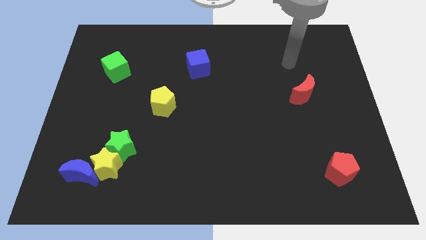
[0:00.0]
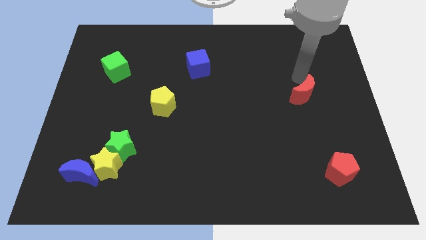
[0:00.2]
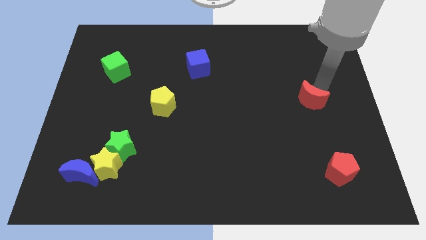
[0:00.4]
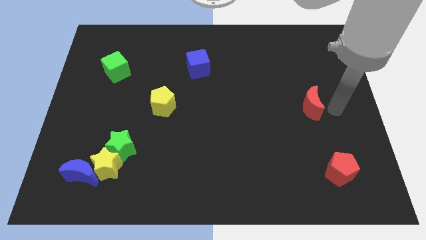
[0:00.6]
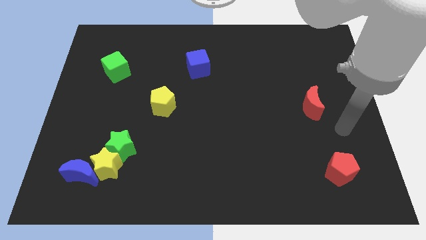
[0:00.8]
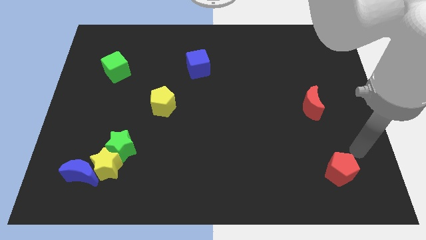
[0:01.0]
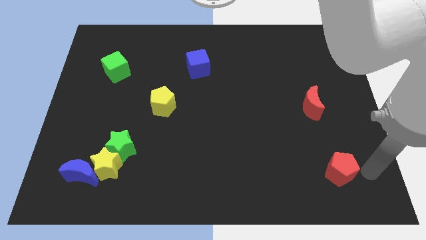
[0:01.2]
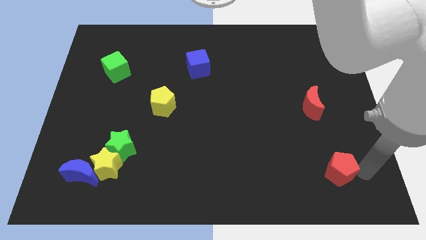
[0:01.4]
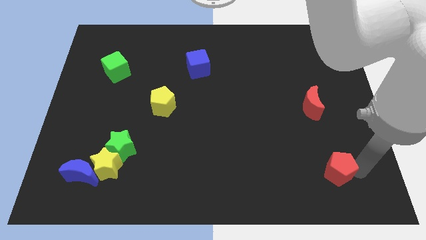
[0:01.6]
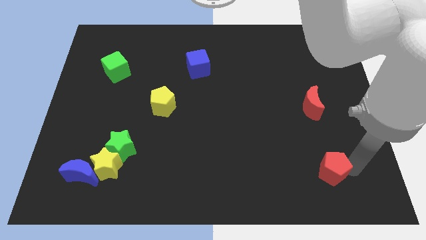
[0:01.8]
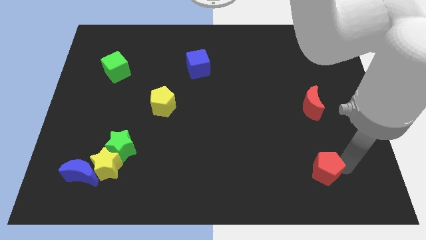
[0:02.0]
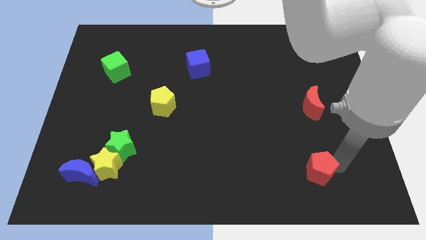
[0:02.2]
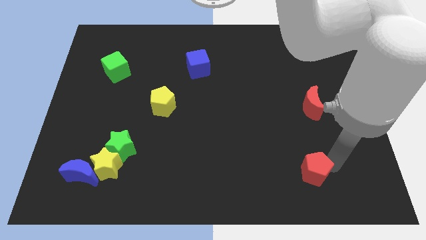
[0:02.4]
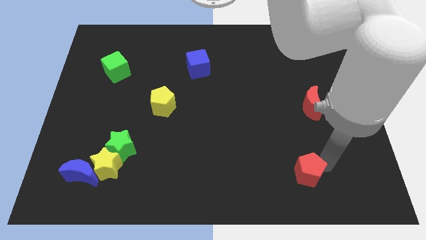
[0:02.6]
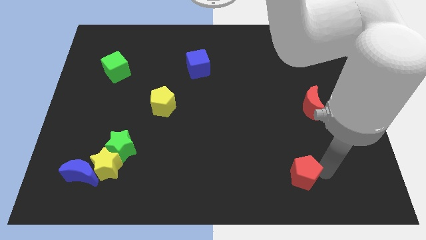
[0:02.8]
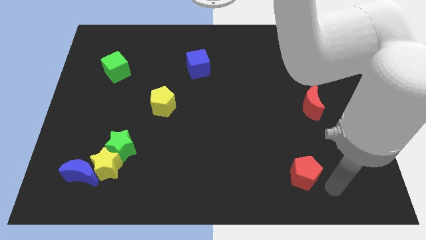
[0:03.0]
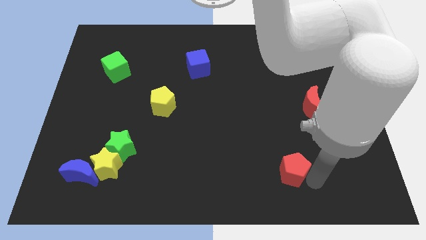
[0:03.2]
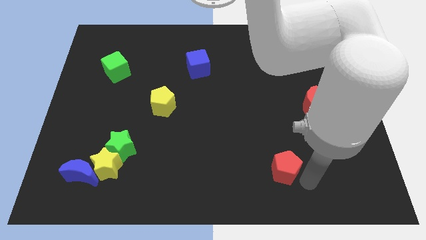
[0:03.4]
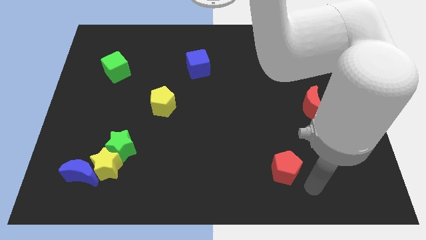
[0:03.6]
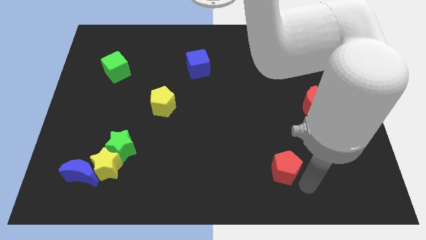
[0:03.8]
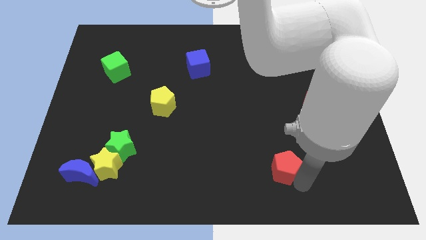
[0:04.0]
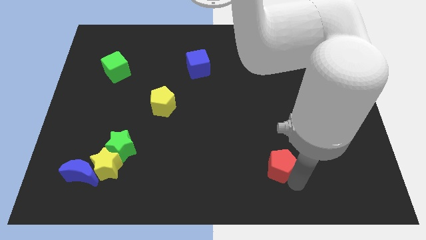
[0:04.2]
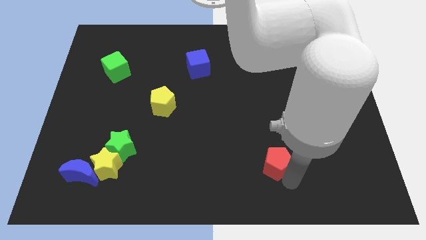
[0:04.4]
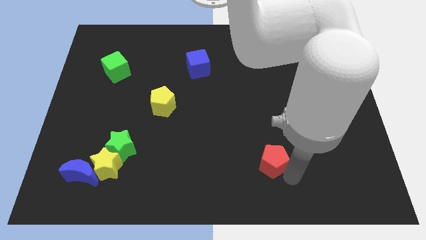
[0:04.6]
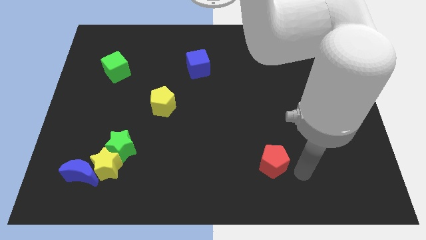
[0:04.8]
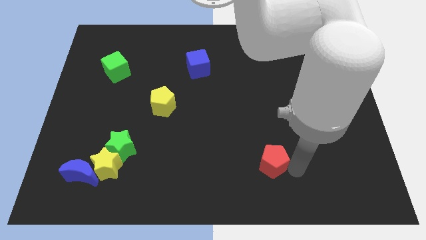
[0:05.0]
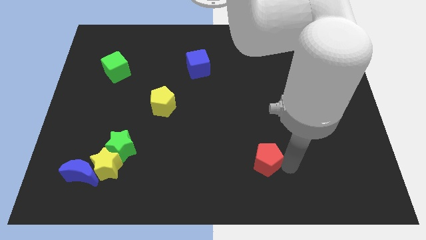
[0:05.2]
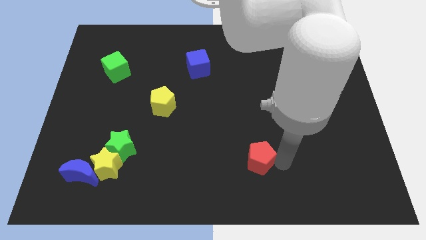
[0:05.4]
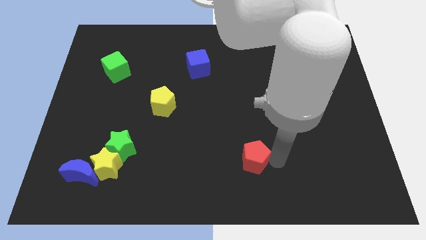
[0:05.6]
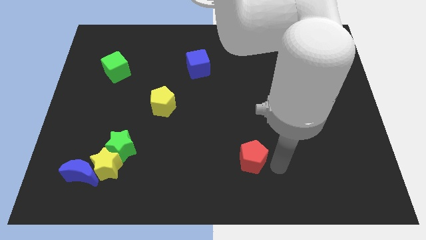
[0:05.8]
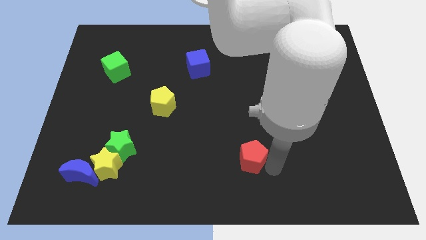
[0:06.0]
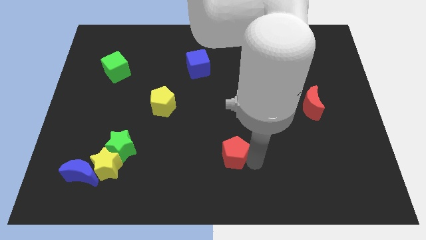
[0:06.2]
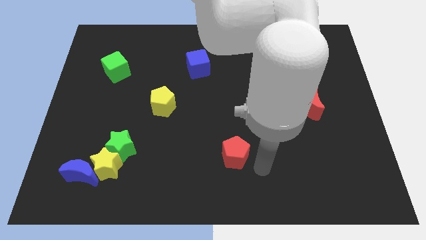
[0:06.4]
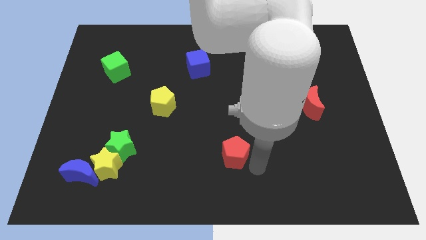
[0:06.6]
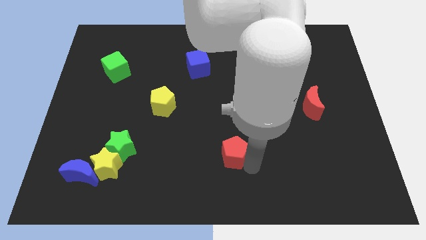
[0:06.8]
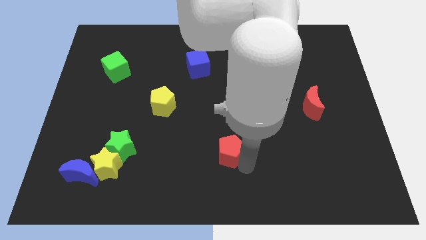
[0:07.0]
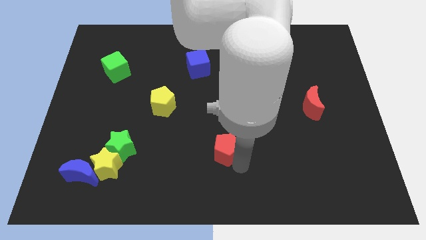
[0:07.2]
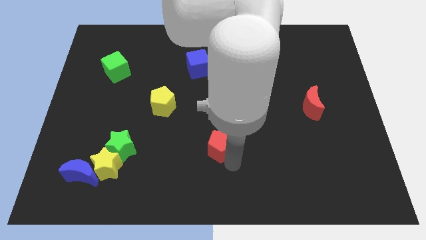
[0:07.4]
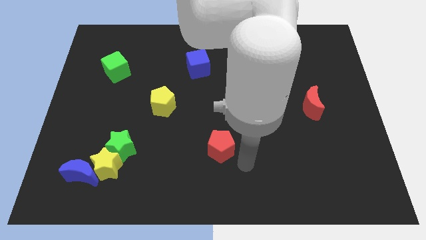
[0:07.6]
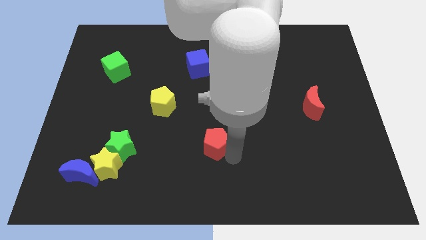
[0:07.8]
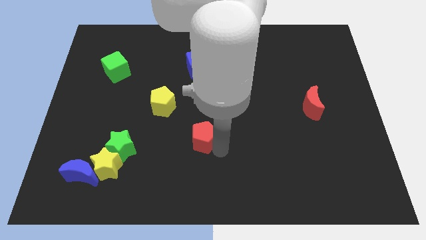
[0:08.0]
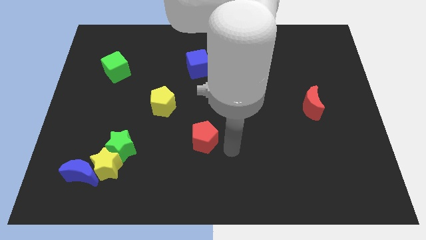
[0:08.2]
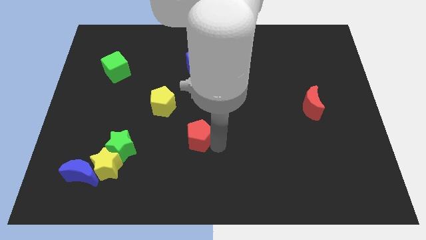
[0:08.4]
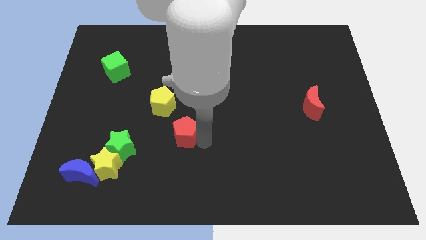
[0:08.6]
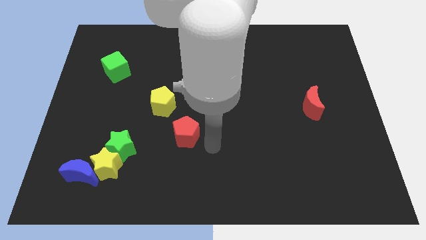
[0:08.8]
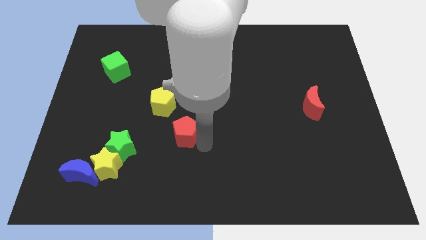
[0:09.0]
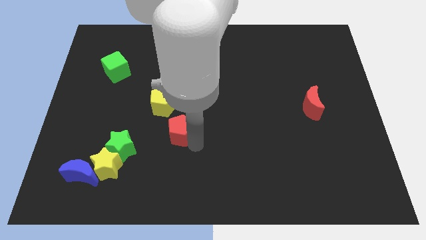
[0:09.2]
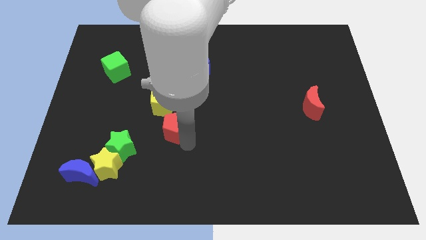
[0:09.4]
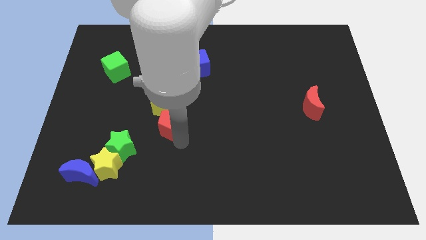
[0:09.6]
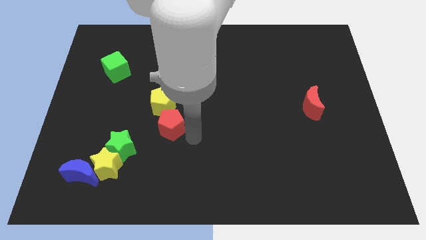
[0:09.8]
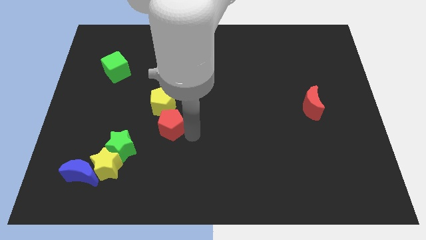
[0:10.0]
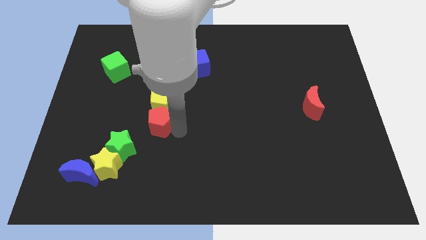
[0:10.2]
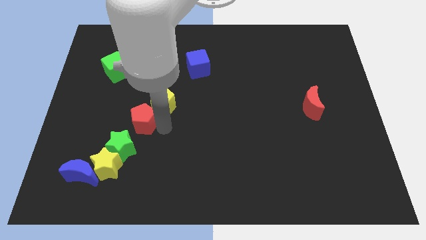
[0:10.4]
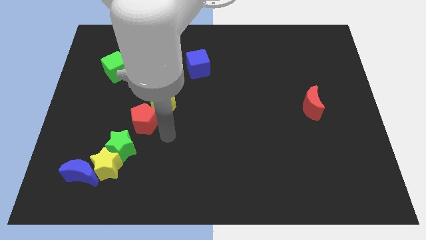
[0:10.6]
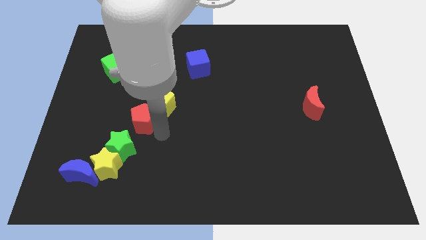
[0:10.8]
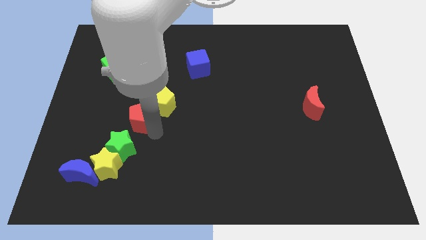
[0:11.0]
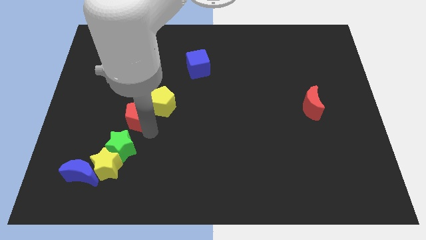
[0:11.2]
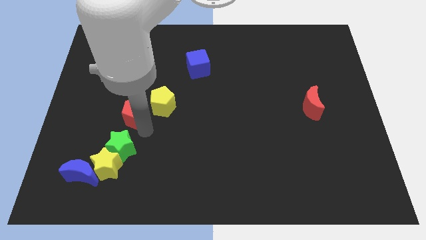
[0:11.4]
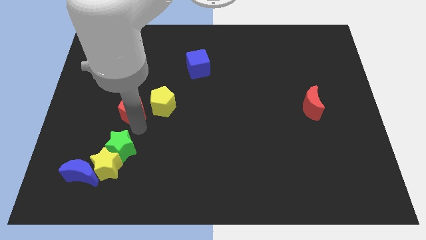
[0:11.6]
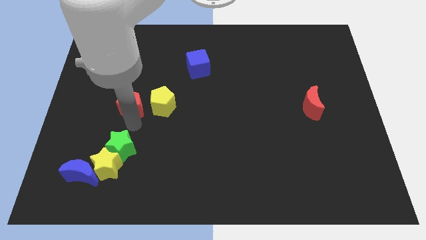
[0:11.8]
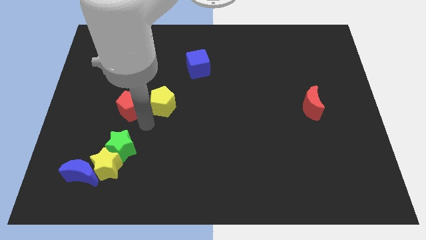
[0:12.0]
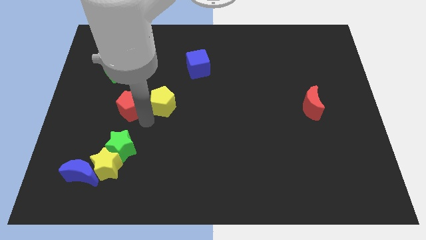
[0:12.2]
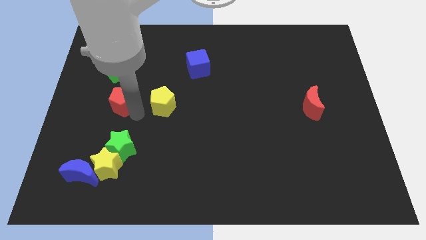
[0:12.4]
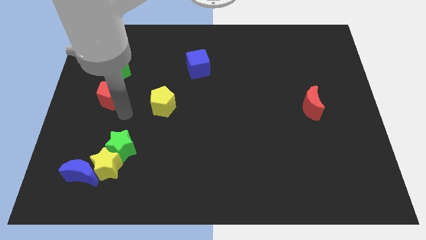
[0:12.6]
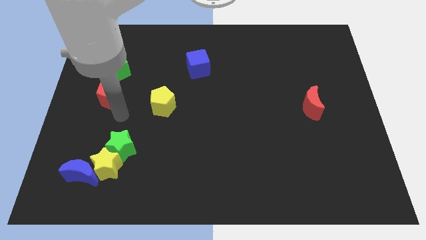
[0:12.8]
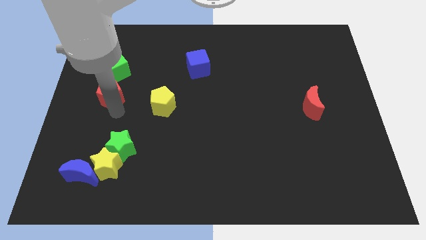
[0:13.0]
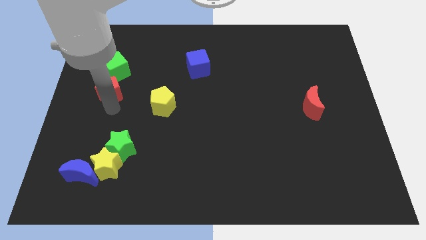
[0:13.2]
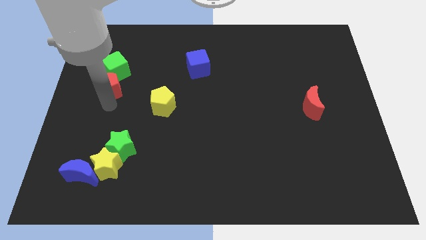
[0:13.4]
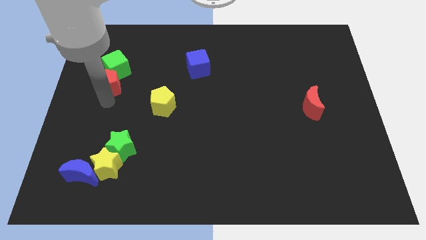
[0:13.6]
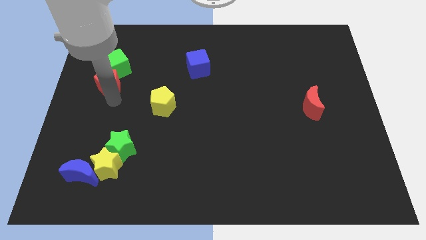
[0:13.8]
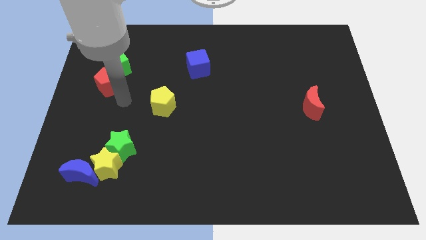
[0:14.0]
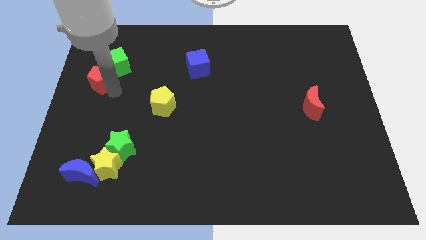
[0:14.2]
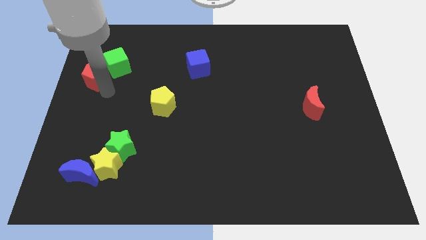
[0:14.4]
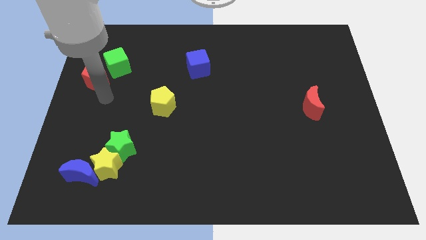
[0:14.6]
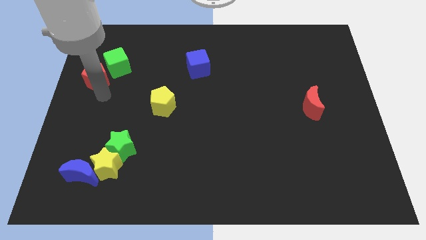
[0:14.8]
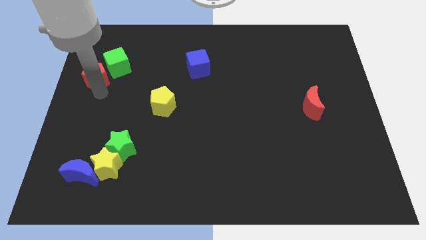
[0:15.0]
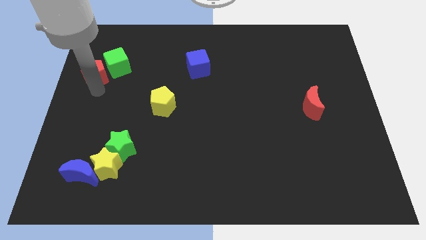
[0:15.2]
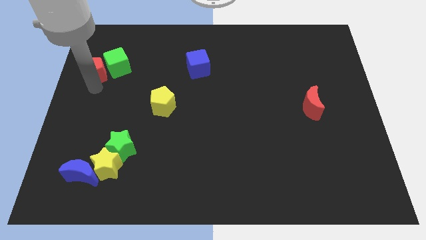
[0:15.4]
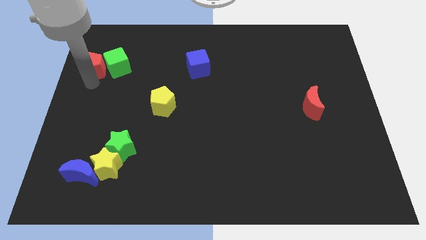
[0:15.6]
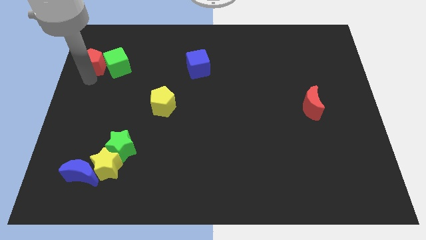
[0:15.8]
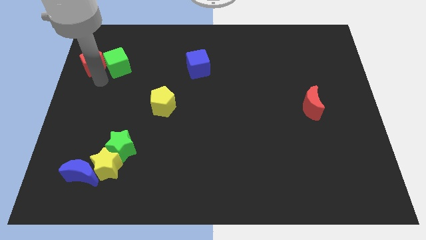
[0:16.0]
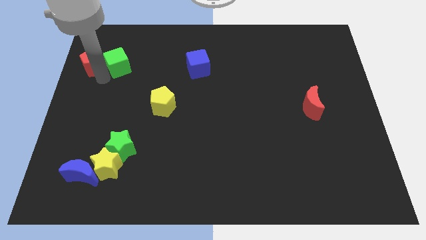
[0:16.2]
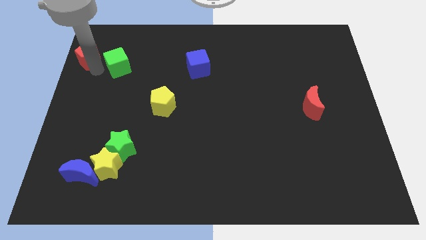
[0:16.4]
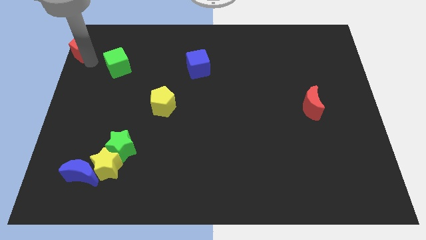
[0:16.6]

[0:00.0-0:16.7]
slide the red pentagon to the upper left corner
